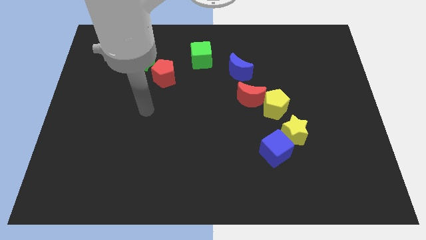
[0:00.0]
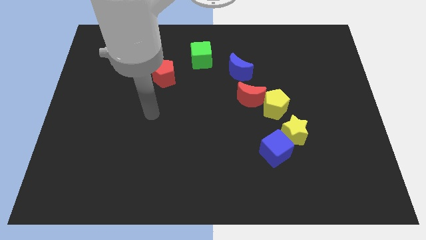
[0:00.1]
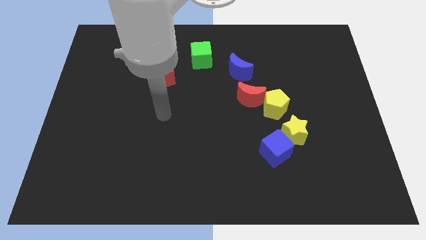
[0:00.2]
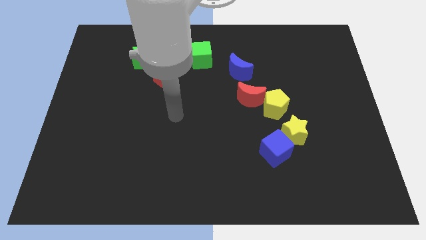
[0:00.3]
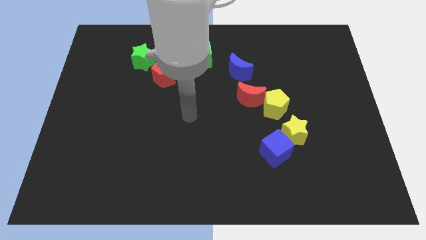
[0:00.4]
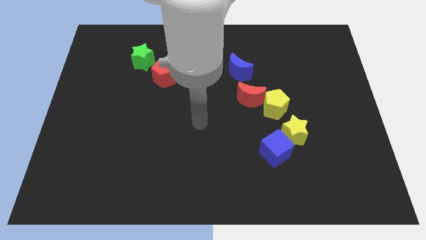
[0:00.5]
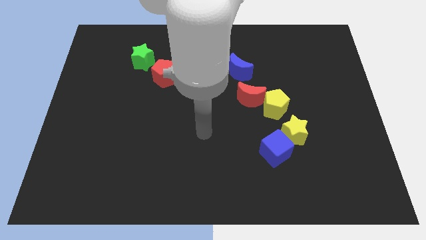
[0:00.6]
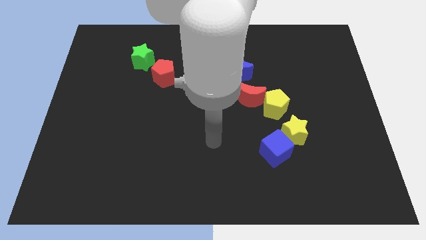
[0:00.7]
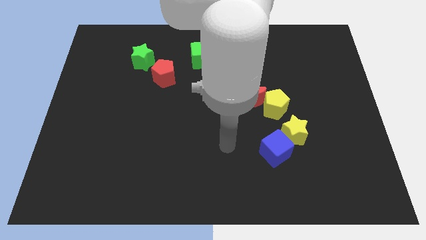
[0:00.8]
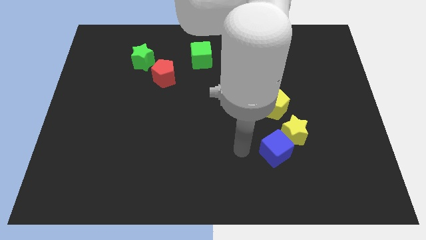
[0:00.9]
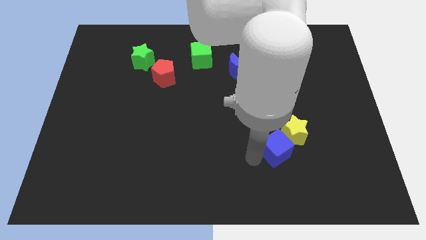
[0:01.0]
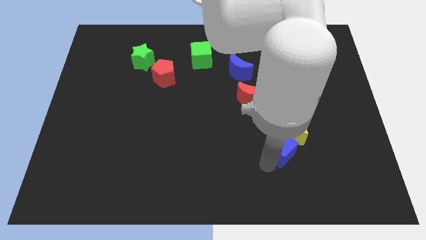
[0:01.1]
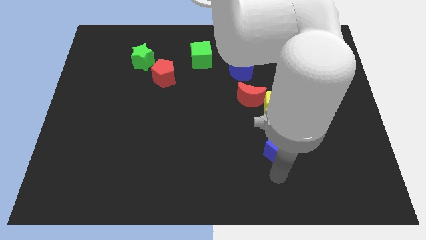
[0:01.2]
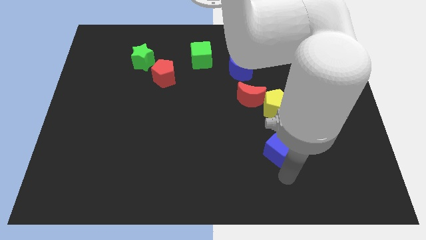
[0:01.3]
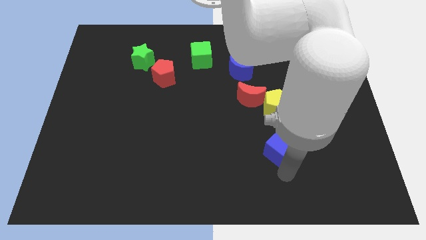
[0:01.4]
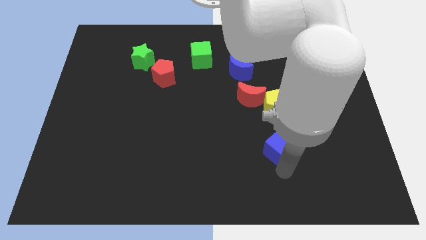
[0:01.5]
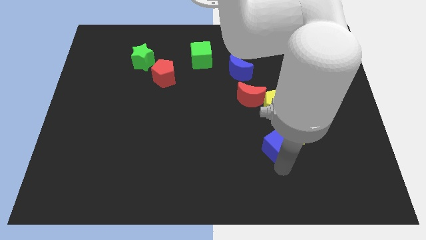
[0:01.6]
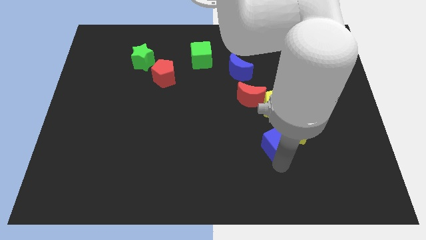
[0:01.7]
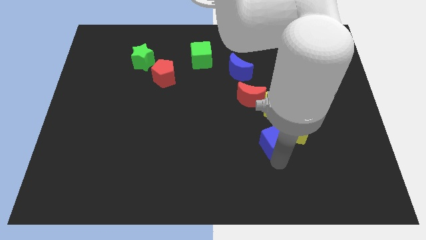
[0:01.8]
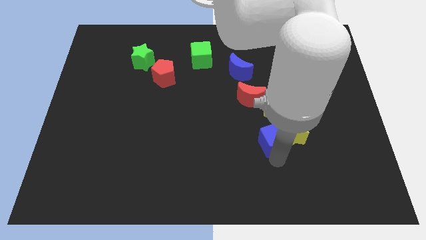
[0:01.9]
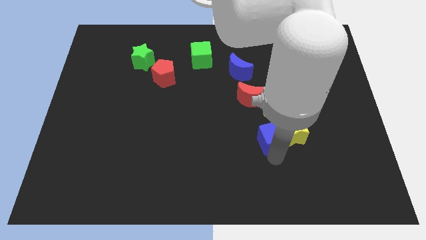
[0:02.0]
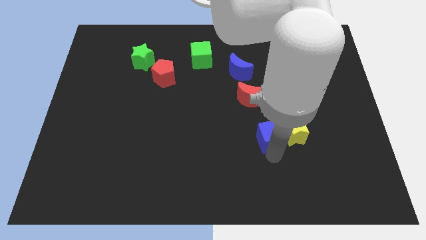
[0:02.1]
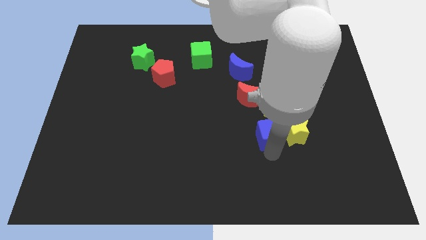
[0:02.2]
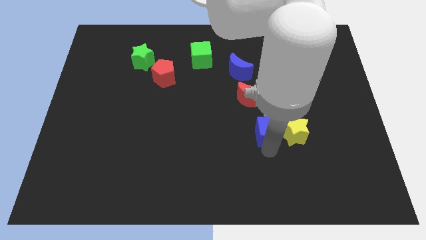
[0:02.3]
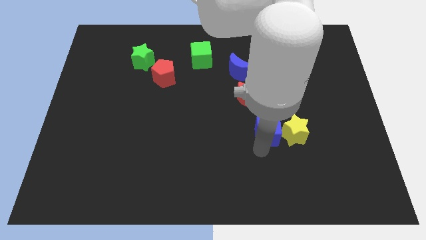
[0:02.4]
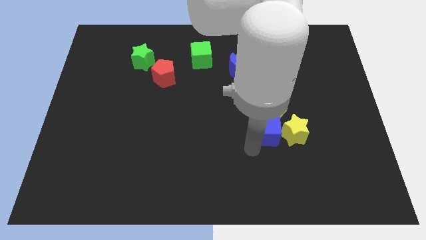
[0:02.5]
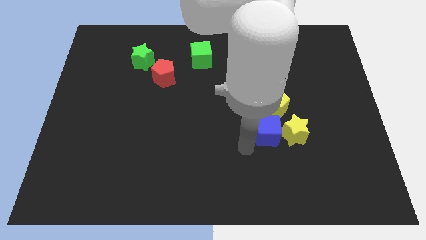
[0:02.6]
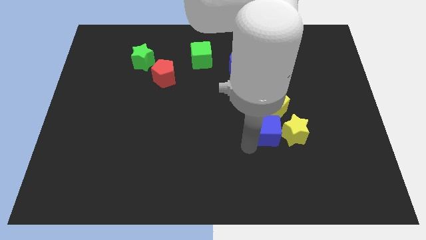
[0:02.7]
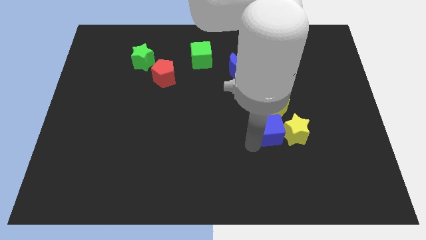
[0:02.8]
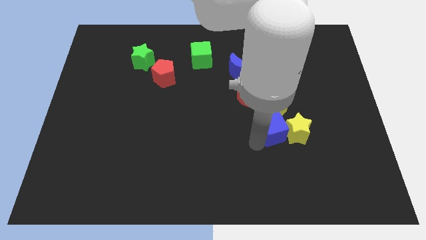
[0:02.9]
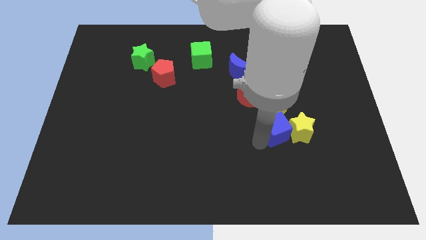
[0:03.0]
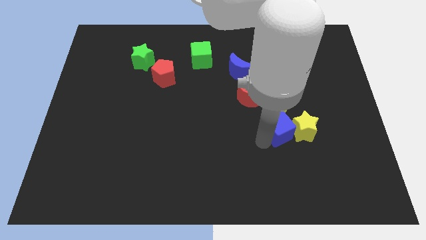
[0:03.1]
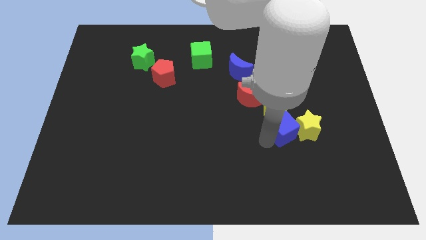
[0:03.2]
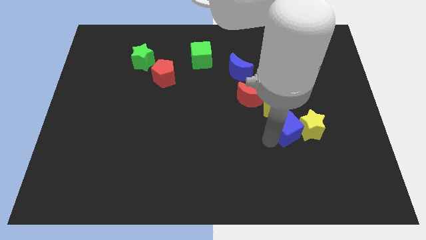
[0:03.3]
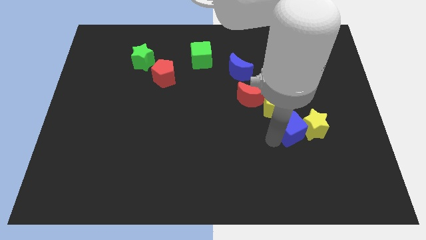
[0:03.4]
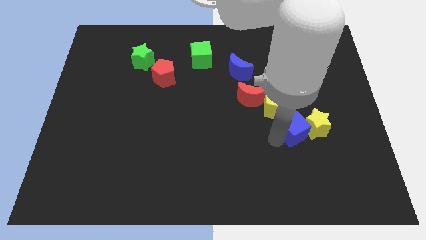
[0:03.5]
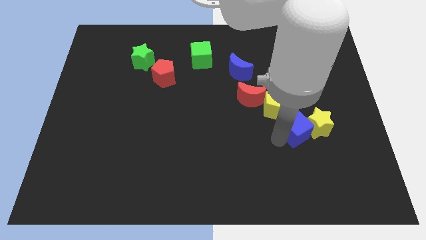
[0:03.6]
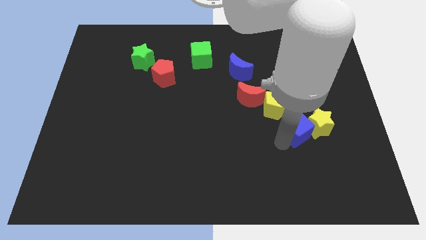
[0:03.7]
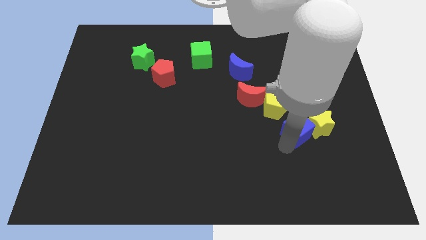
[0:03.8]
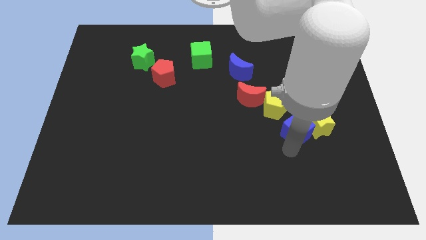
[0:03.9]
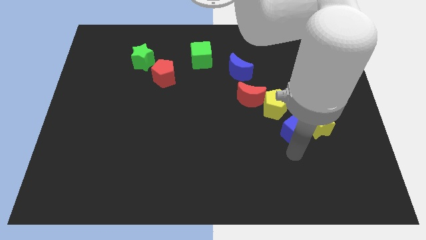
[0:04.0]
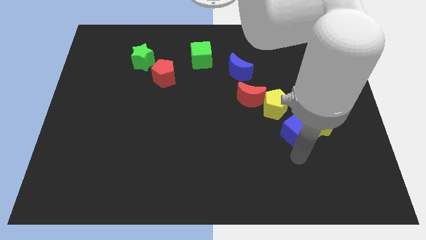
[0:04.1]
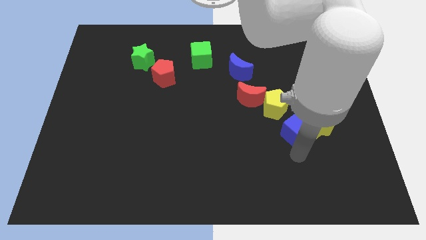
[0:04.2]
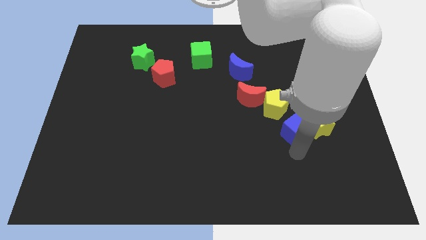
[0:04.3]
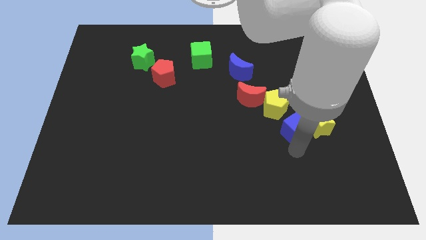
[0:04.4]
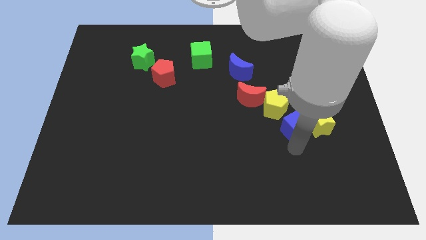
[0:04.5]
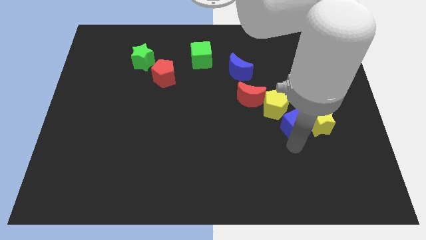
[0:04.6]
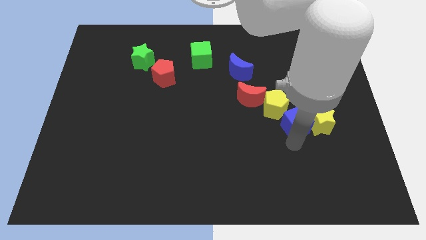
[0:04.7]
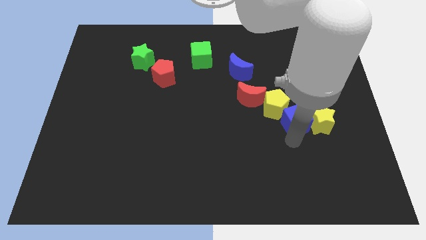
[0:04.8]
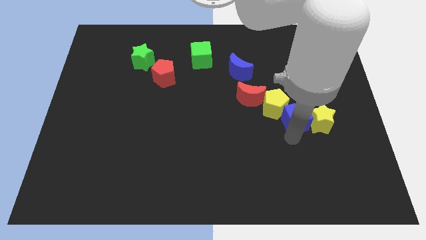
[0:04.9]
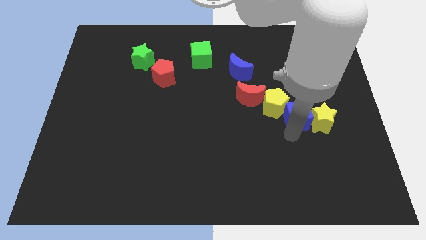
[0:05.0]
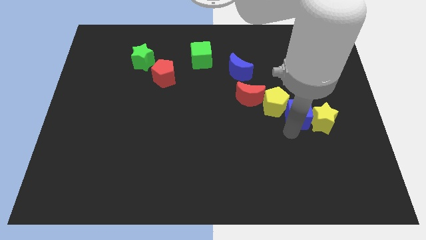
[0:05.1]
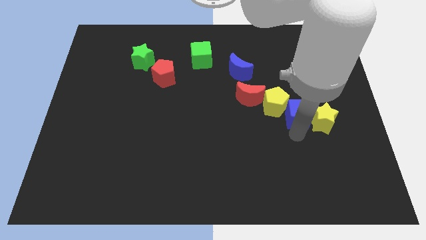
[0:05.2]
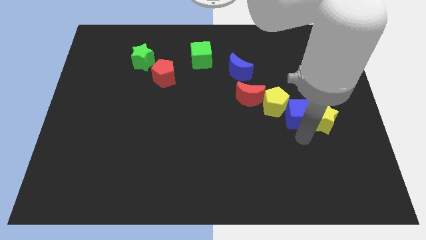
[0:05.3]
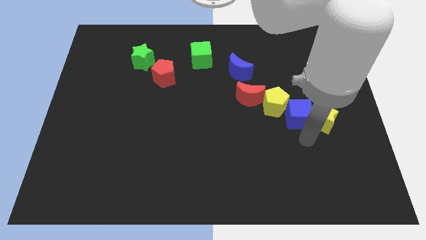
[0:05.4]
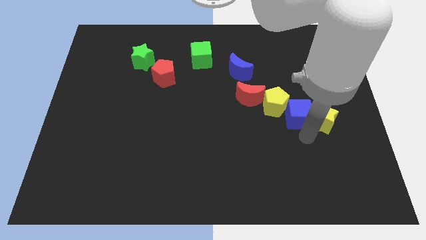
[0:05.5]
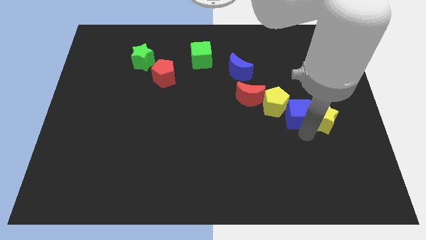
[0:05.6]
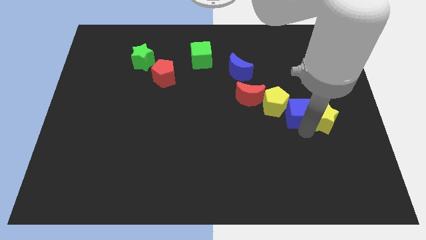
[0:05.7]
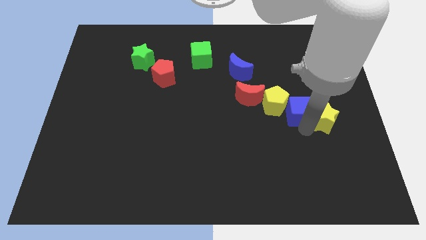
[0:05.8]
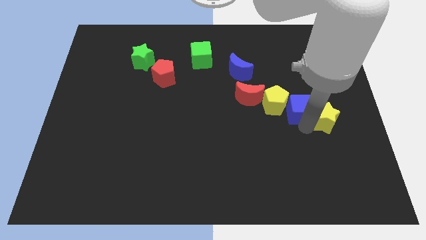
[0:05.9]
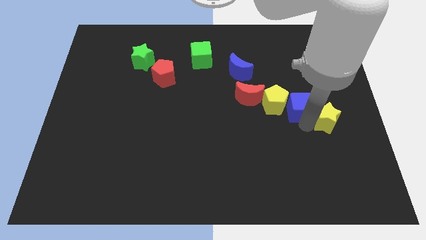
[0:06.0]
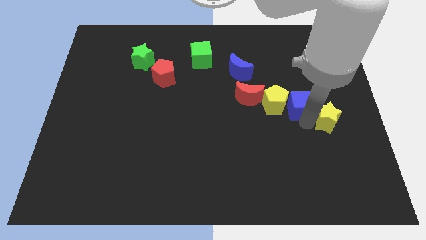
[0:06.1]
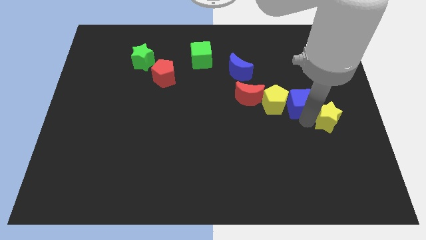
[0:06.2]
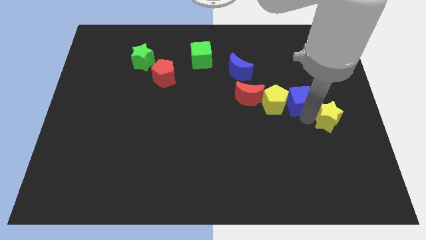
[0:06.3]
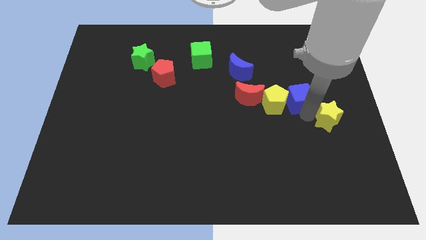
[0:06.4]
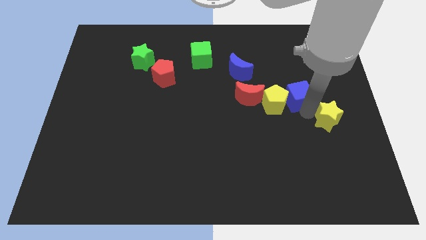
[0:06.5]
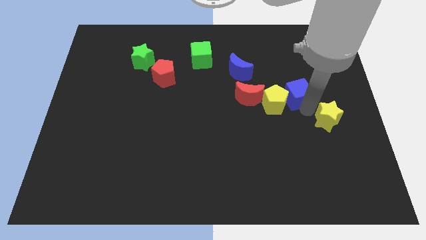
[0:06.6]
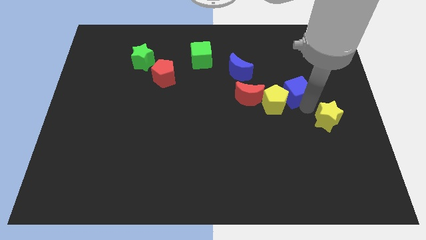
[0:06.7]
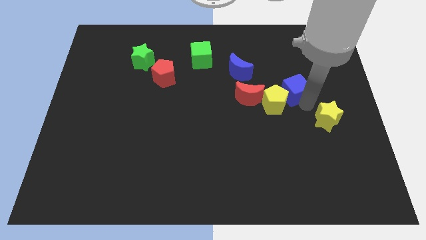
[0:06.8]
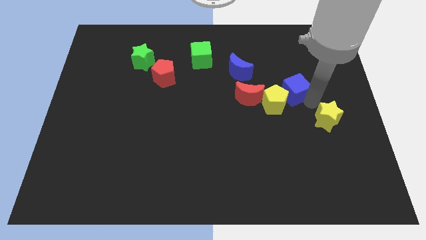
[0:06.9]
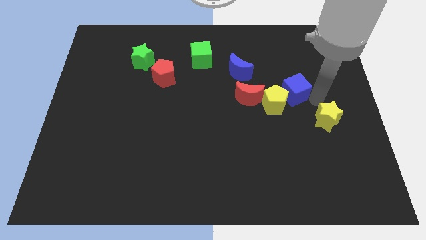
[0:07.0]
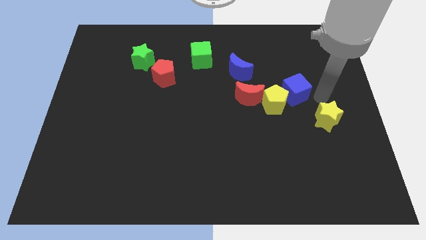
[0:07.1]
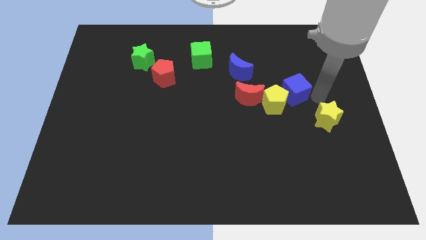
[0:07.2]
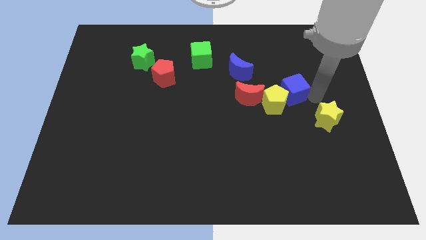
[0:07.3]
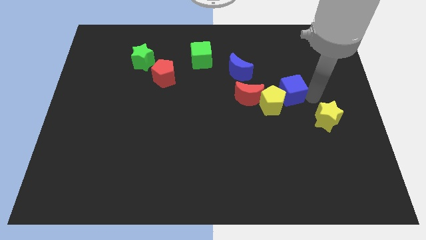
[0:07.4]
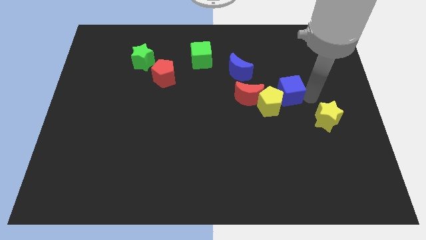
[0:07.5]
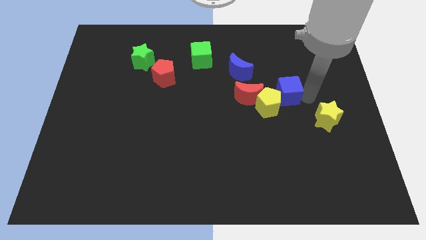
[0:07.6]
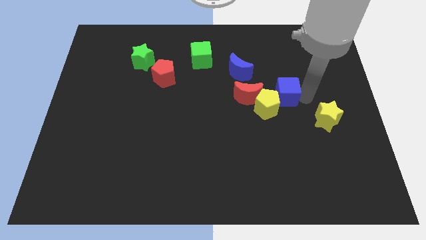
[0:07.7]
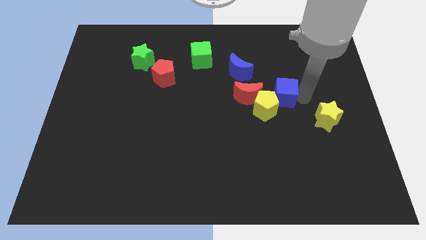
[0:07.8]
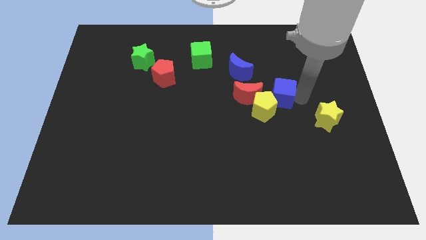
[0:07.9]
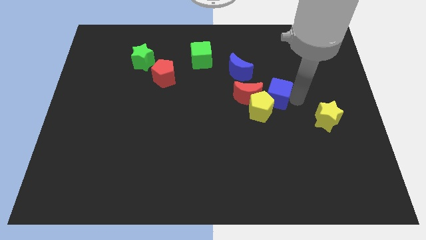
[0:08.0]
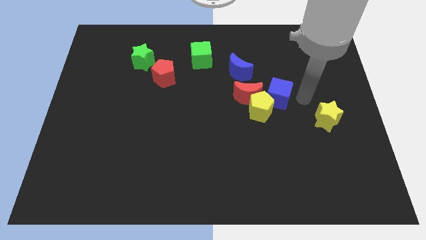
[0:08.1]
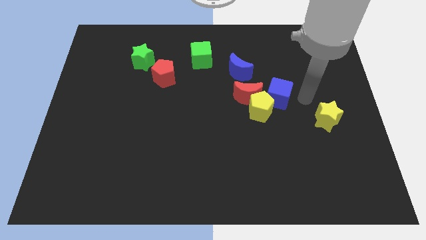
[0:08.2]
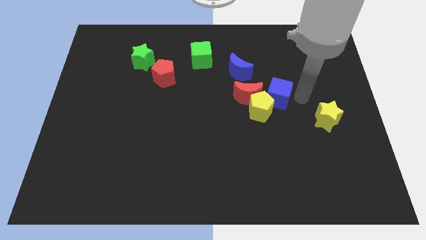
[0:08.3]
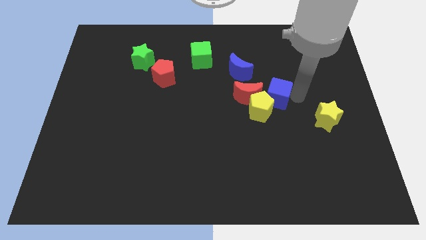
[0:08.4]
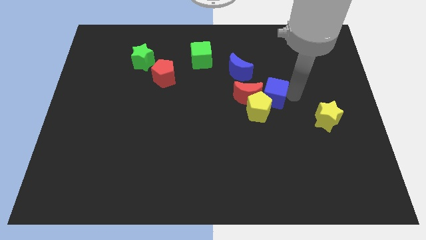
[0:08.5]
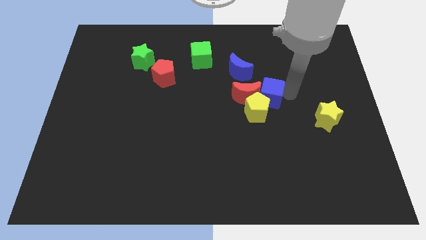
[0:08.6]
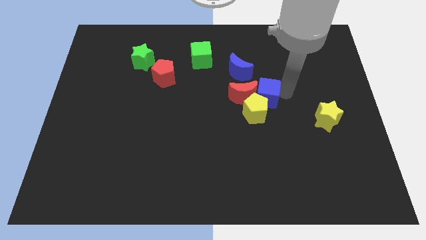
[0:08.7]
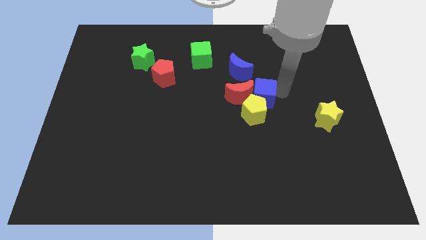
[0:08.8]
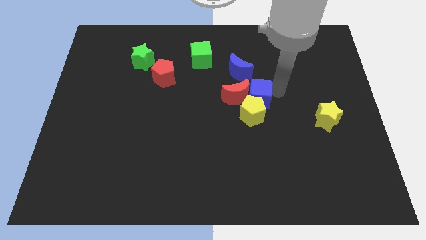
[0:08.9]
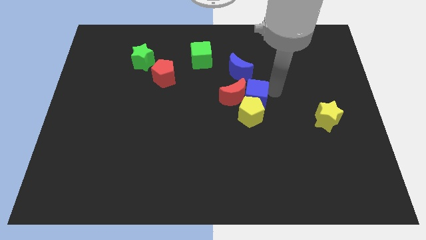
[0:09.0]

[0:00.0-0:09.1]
put the blue cube diagonally up and to the left of the yellow pentagon
